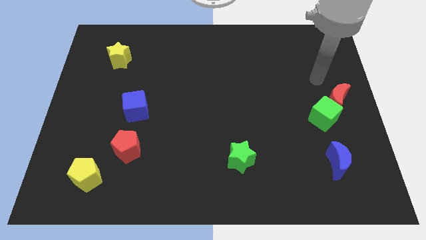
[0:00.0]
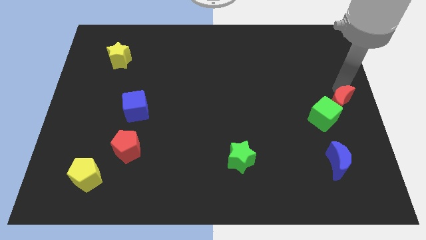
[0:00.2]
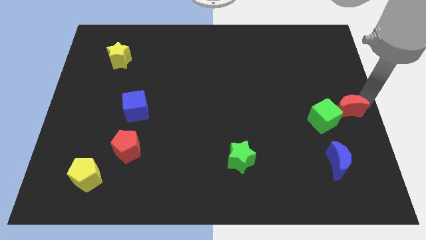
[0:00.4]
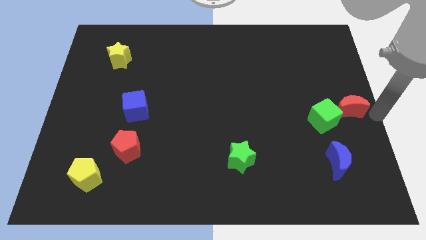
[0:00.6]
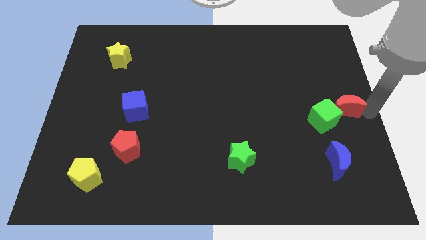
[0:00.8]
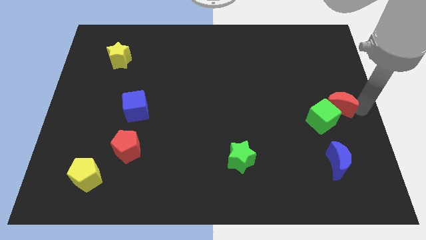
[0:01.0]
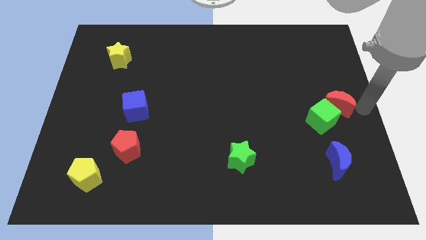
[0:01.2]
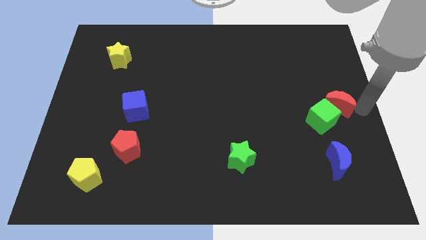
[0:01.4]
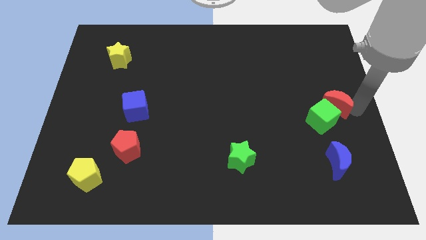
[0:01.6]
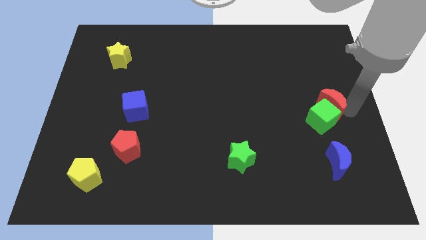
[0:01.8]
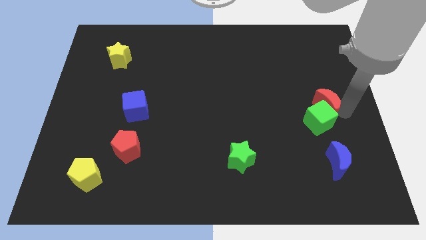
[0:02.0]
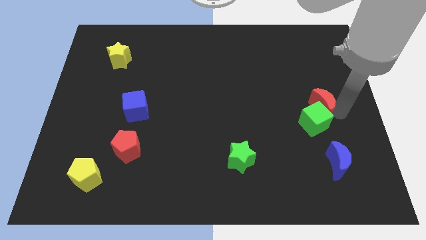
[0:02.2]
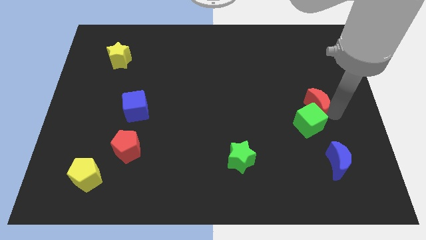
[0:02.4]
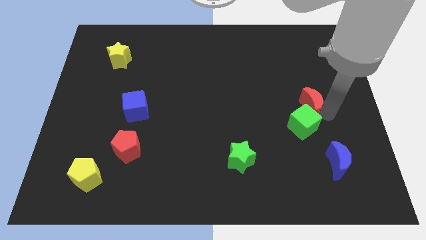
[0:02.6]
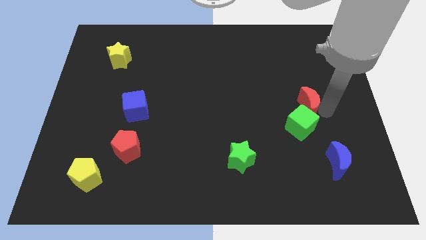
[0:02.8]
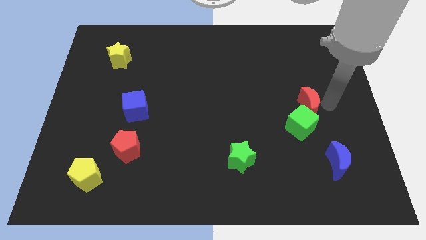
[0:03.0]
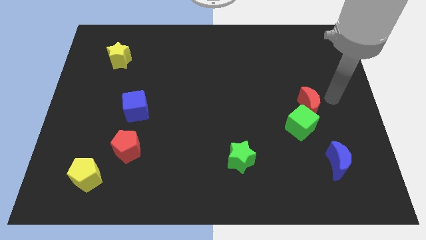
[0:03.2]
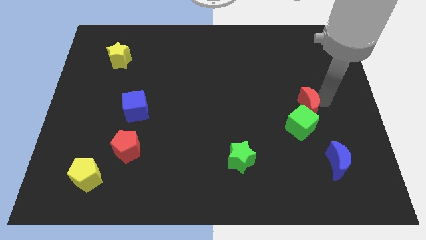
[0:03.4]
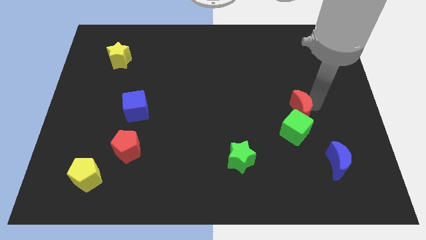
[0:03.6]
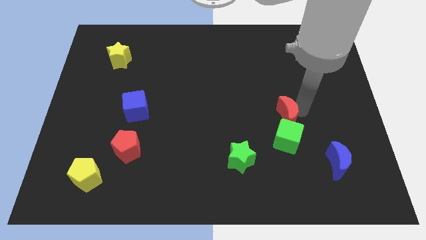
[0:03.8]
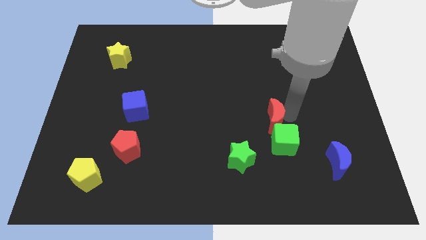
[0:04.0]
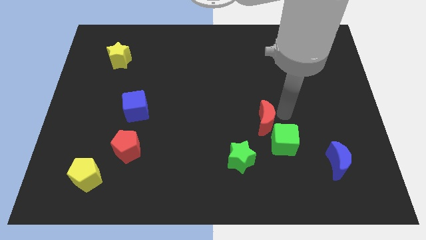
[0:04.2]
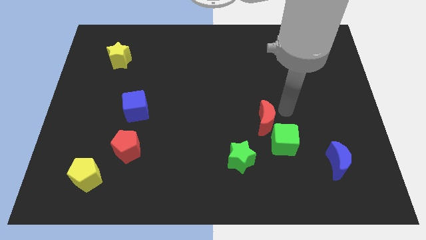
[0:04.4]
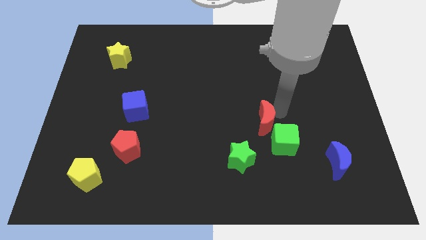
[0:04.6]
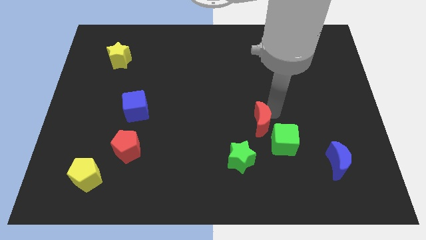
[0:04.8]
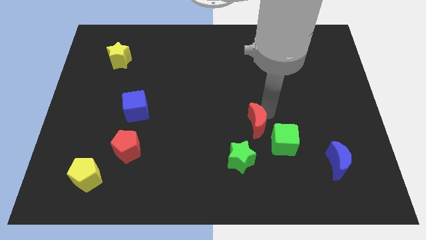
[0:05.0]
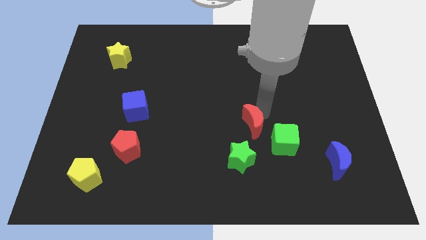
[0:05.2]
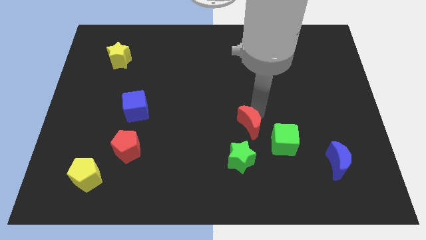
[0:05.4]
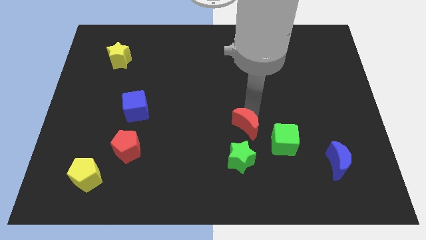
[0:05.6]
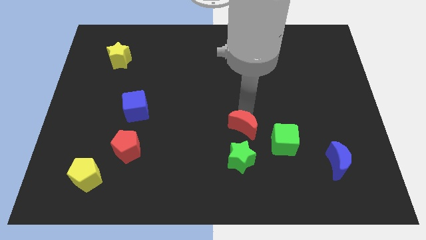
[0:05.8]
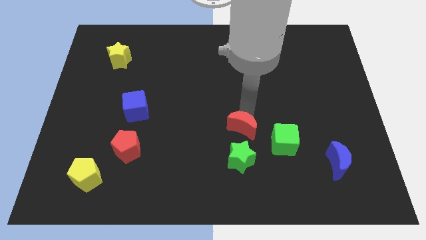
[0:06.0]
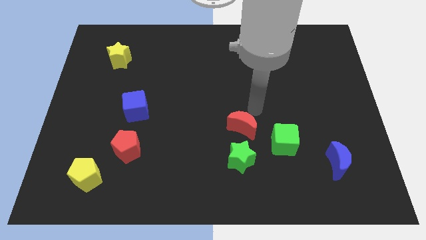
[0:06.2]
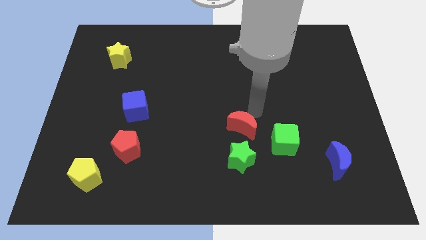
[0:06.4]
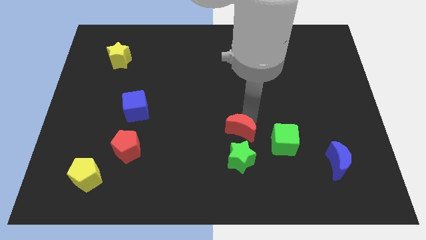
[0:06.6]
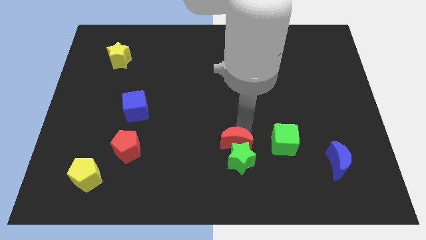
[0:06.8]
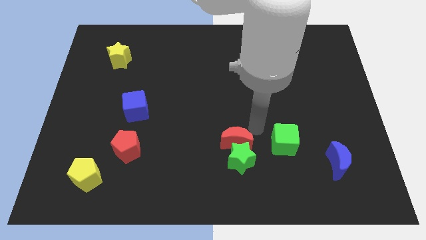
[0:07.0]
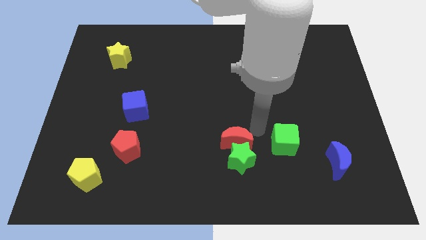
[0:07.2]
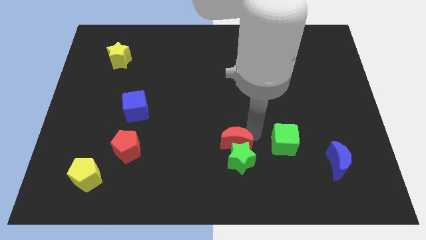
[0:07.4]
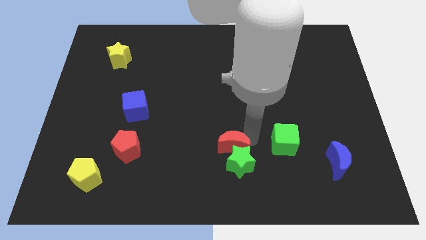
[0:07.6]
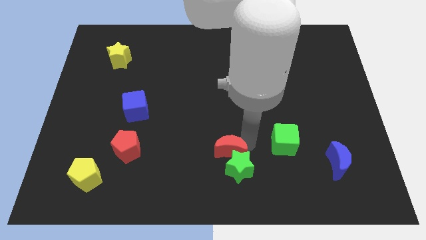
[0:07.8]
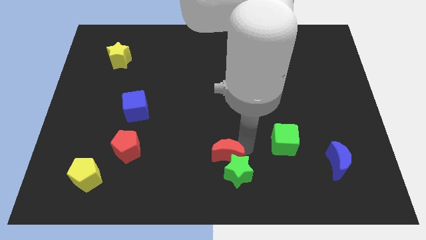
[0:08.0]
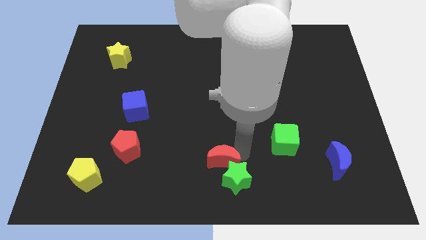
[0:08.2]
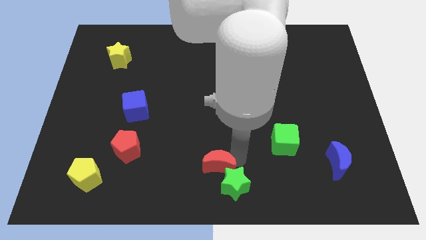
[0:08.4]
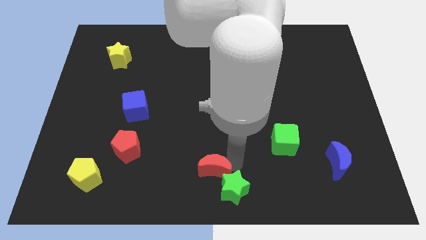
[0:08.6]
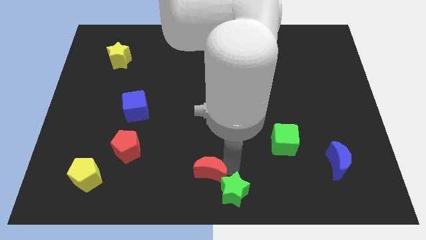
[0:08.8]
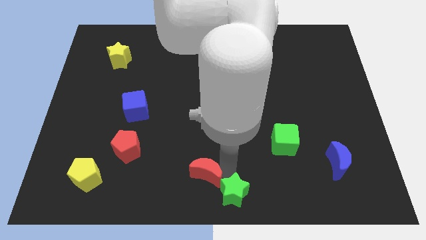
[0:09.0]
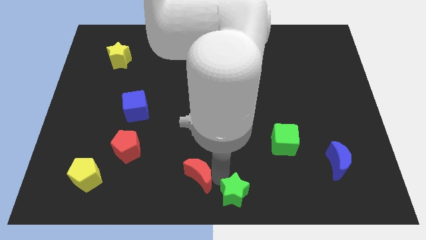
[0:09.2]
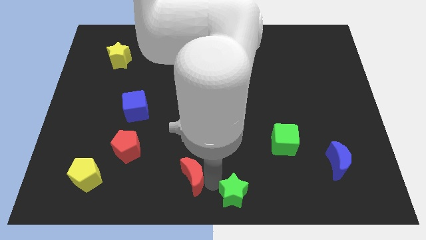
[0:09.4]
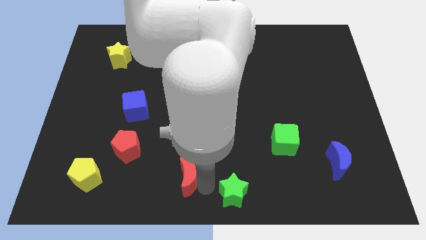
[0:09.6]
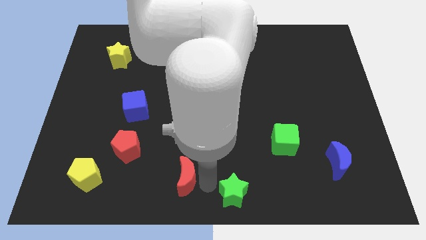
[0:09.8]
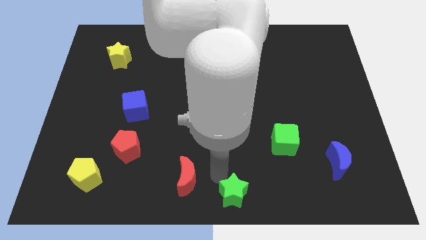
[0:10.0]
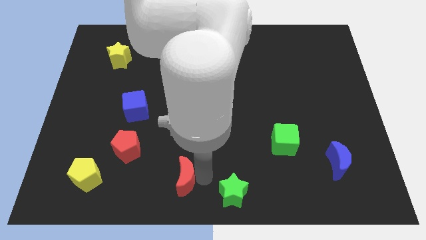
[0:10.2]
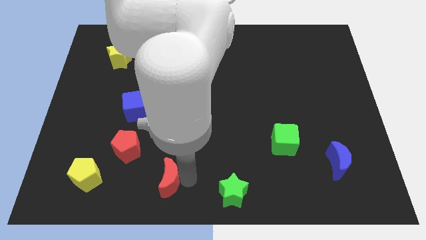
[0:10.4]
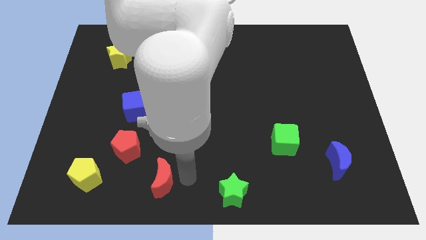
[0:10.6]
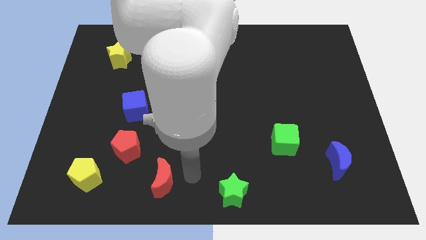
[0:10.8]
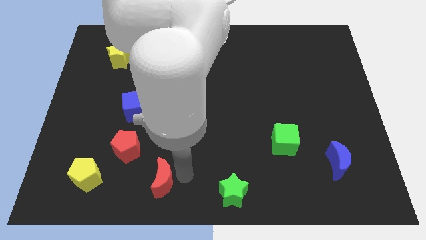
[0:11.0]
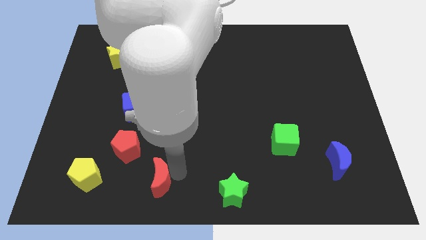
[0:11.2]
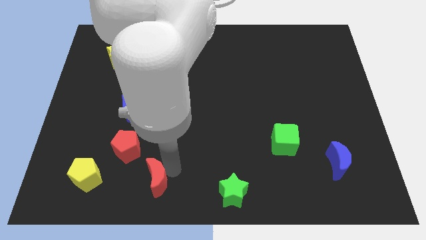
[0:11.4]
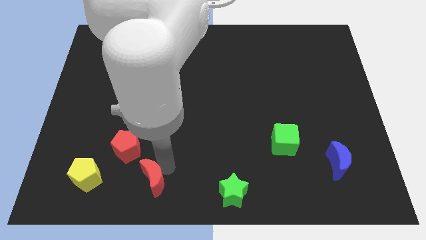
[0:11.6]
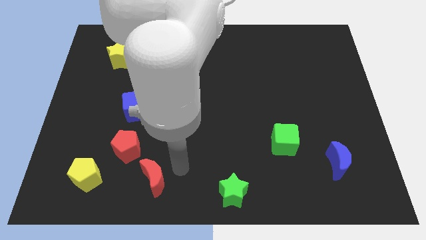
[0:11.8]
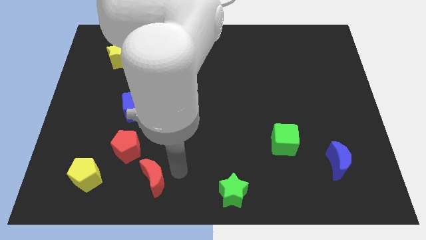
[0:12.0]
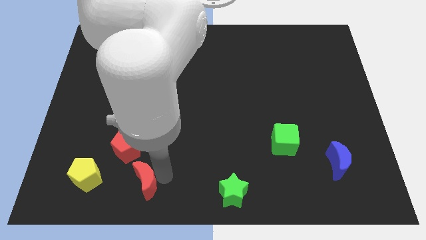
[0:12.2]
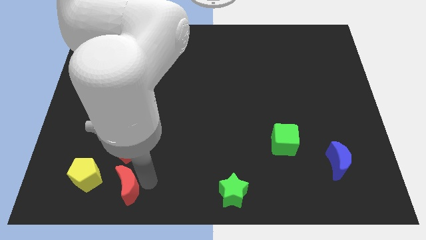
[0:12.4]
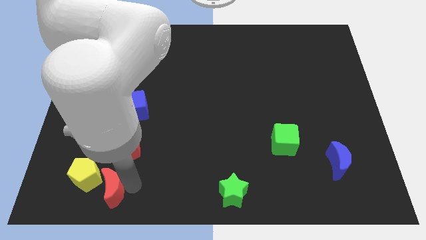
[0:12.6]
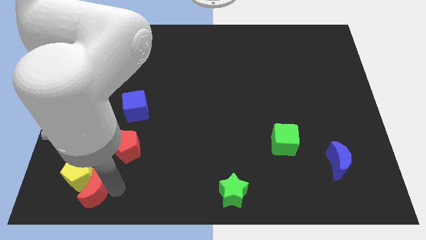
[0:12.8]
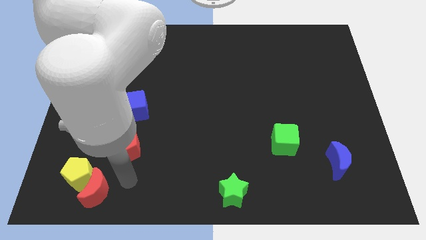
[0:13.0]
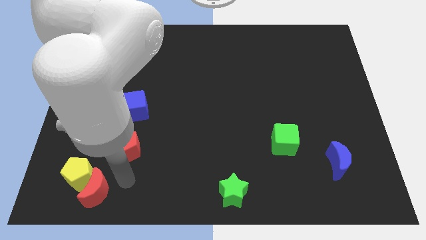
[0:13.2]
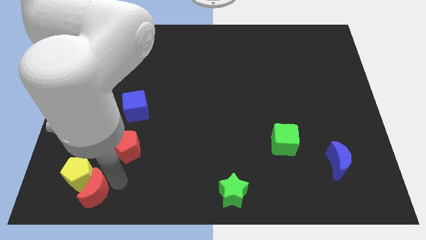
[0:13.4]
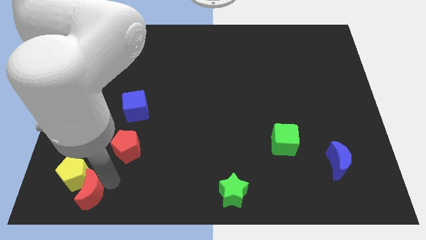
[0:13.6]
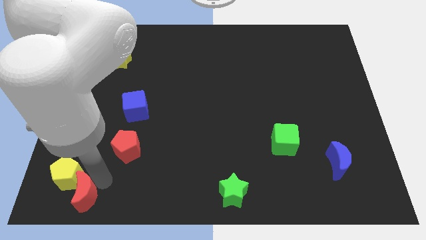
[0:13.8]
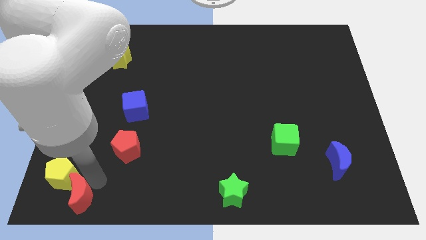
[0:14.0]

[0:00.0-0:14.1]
put the red moon to the bottom left corner
